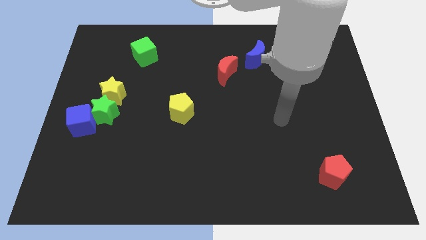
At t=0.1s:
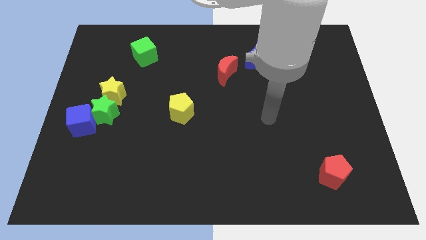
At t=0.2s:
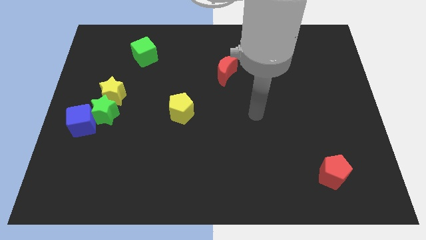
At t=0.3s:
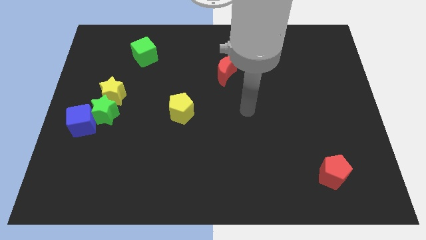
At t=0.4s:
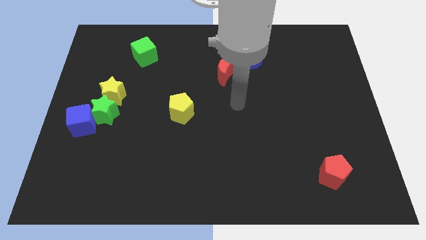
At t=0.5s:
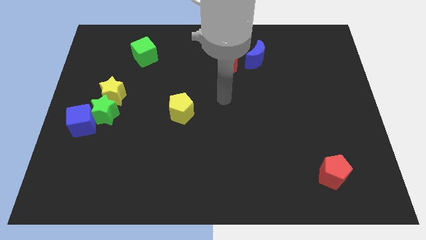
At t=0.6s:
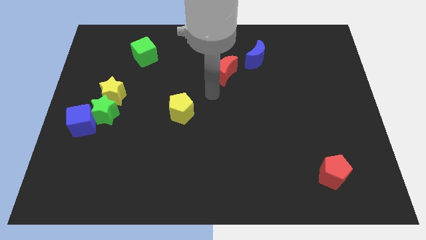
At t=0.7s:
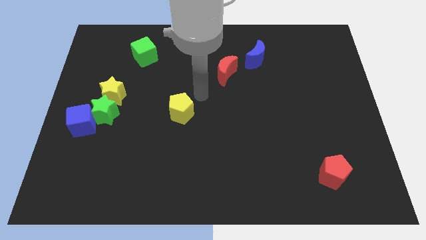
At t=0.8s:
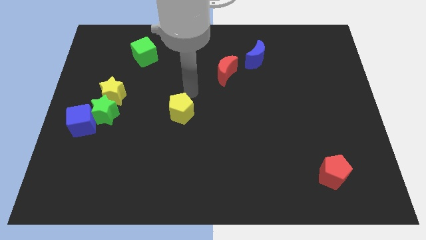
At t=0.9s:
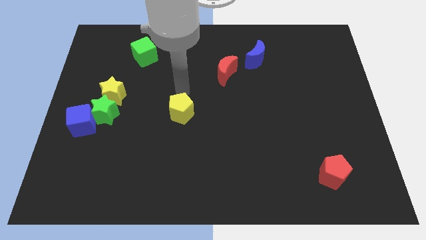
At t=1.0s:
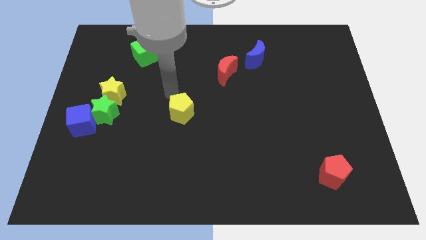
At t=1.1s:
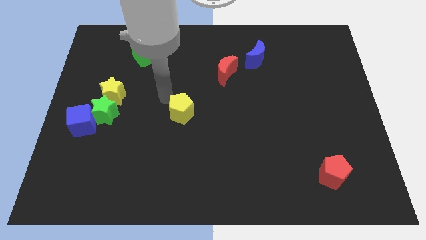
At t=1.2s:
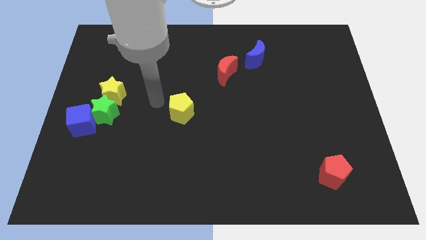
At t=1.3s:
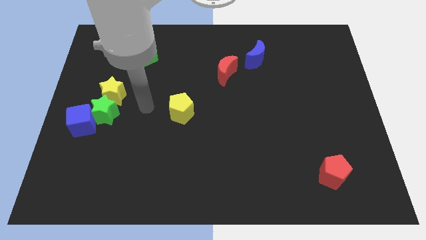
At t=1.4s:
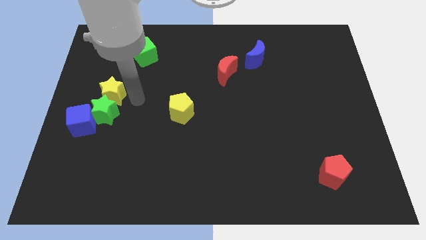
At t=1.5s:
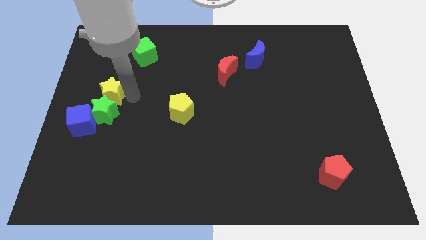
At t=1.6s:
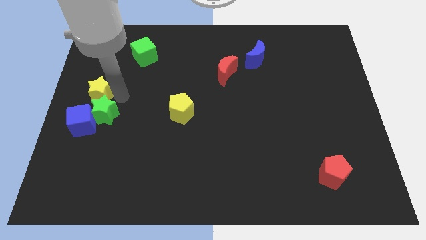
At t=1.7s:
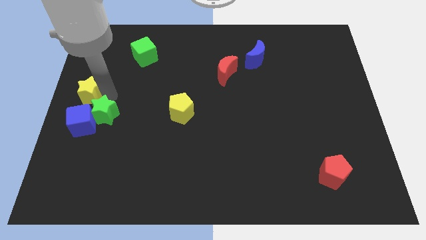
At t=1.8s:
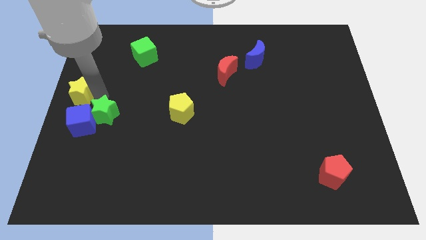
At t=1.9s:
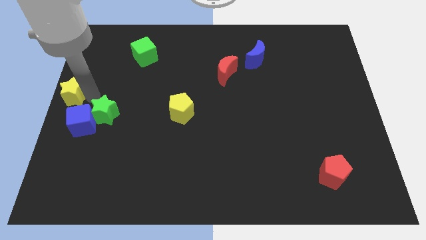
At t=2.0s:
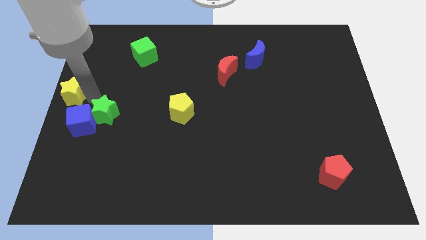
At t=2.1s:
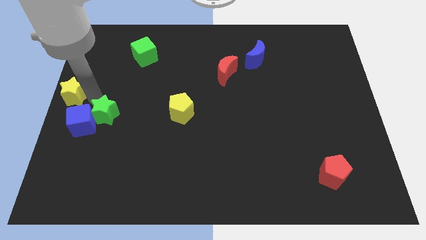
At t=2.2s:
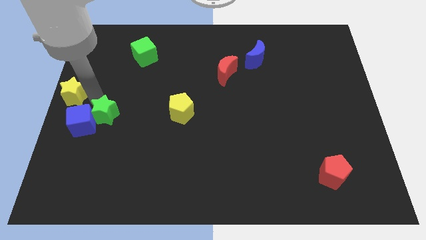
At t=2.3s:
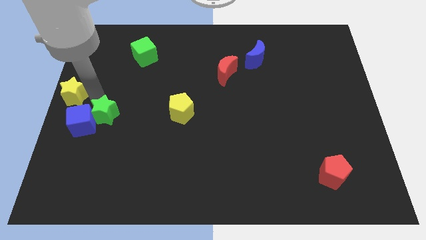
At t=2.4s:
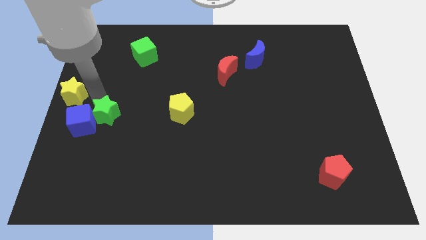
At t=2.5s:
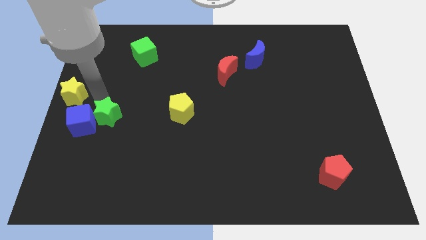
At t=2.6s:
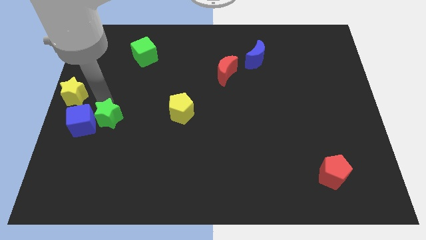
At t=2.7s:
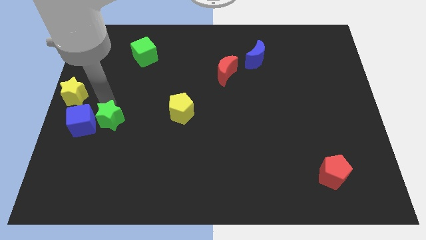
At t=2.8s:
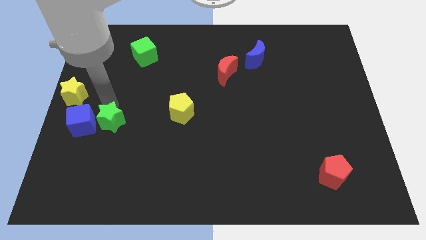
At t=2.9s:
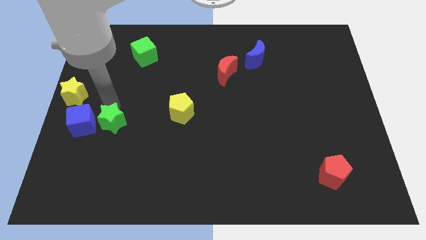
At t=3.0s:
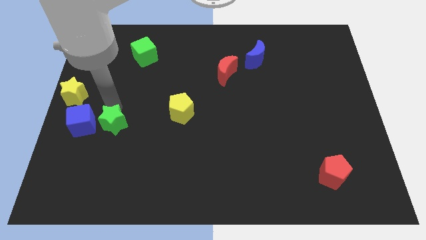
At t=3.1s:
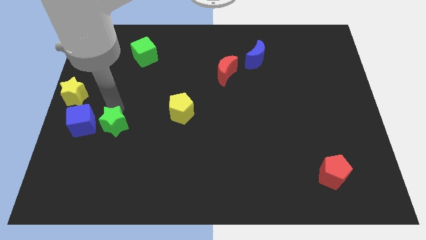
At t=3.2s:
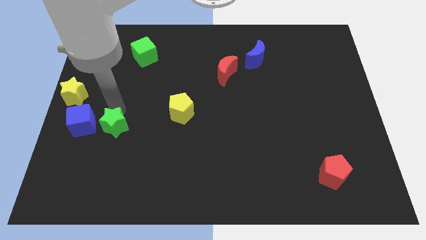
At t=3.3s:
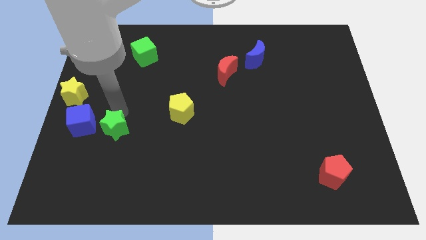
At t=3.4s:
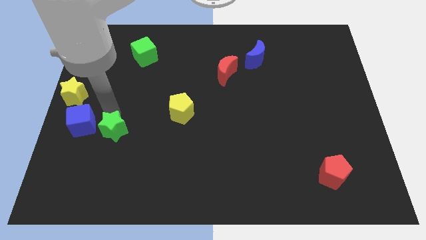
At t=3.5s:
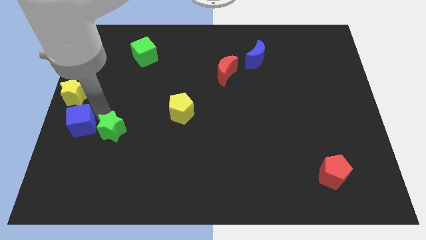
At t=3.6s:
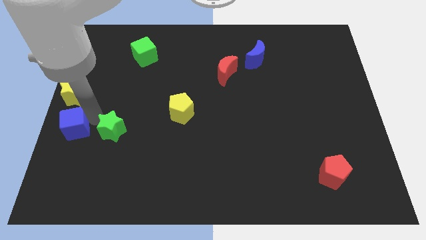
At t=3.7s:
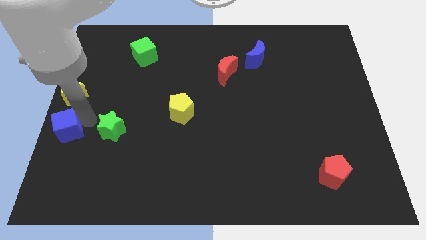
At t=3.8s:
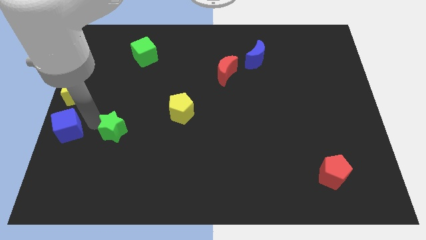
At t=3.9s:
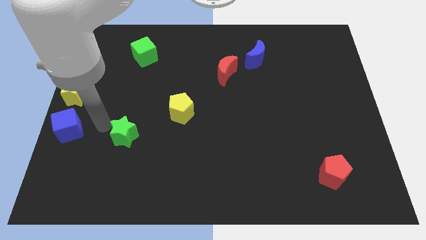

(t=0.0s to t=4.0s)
slightly push the green star down and then to the right

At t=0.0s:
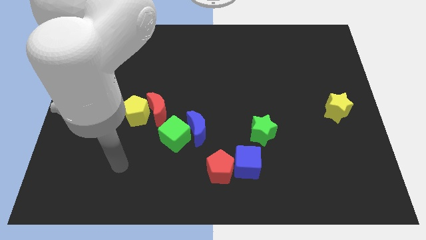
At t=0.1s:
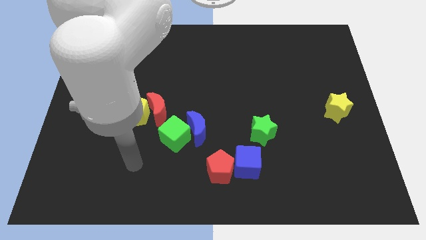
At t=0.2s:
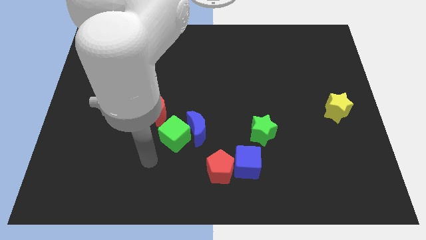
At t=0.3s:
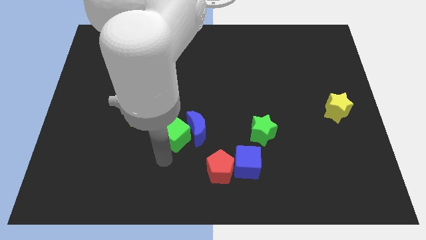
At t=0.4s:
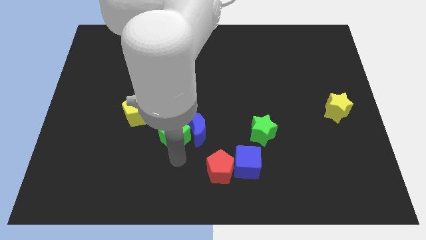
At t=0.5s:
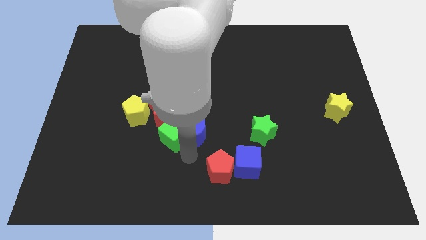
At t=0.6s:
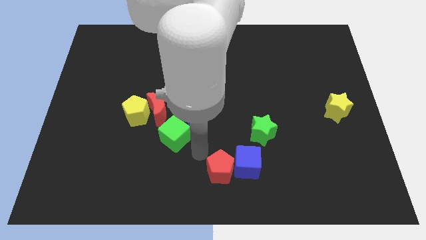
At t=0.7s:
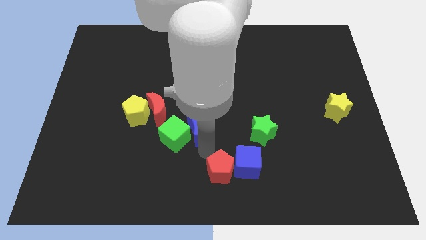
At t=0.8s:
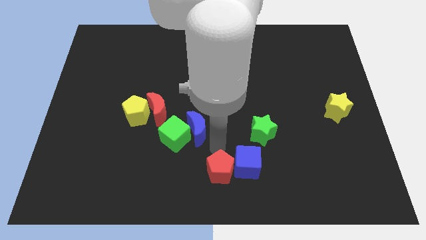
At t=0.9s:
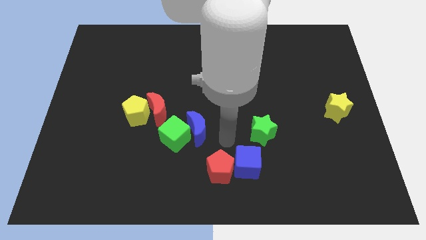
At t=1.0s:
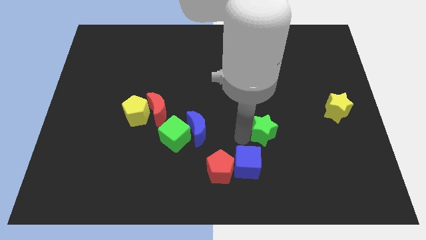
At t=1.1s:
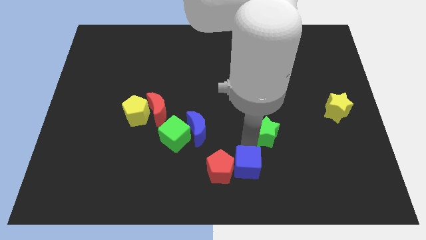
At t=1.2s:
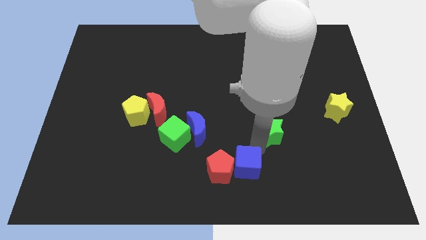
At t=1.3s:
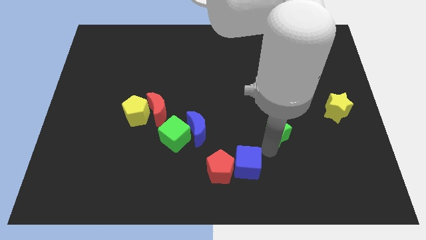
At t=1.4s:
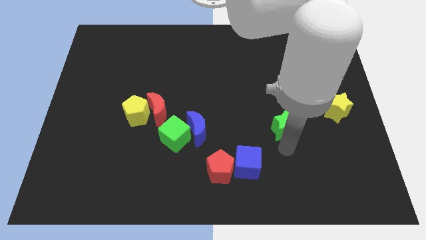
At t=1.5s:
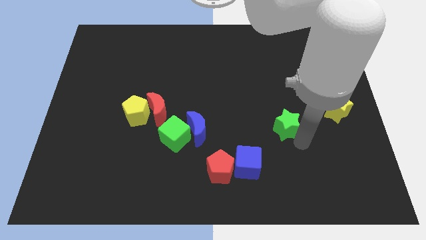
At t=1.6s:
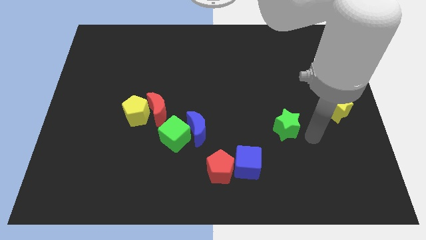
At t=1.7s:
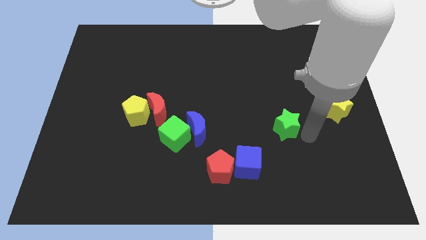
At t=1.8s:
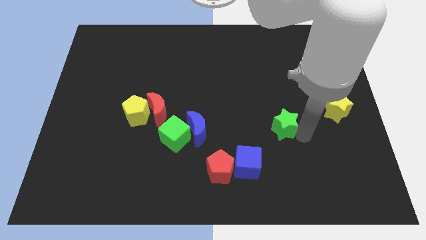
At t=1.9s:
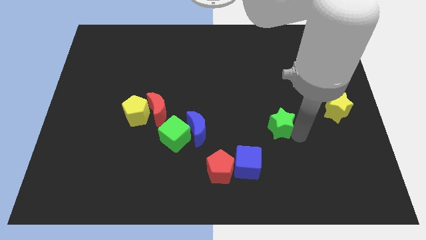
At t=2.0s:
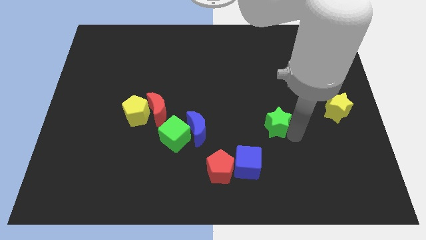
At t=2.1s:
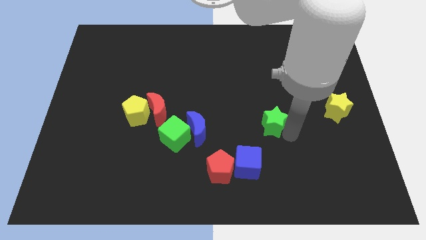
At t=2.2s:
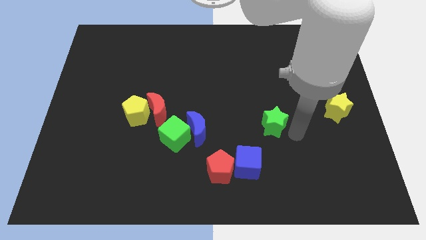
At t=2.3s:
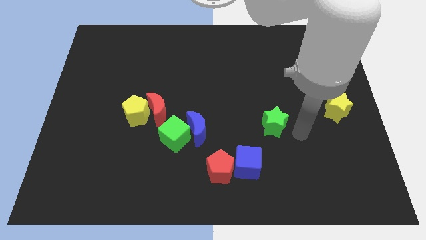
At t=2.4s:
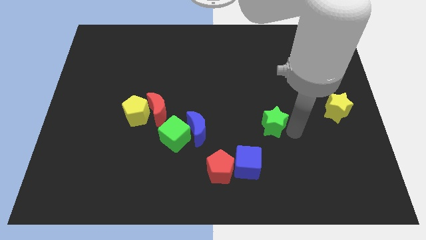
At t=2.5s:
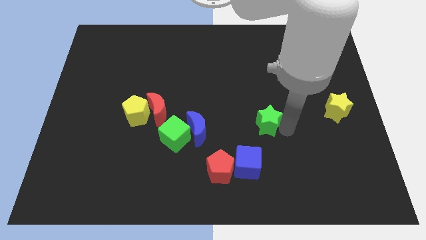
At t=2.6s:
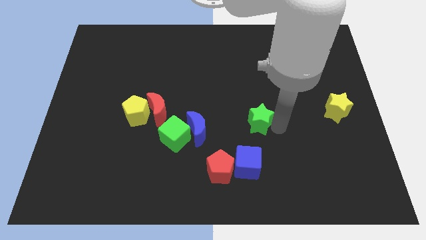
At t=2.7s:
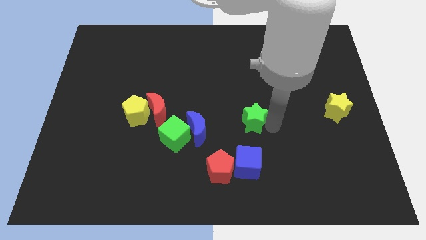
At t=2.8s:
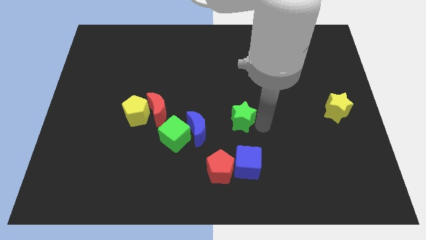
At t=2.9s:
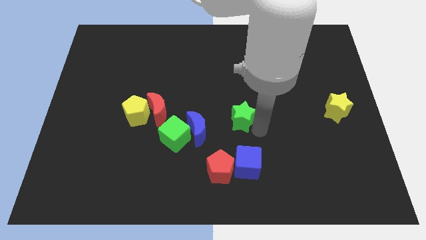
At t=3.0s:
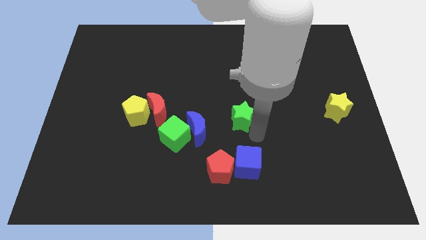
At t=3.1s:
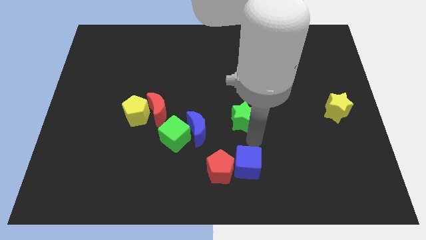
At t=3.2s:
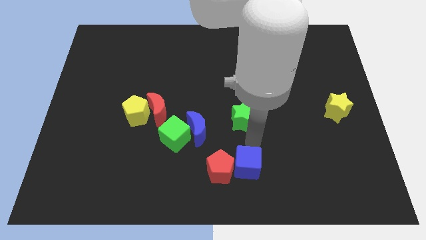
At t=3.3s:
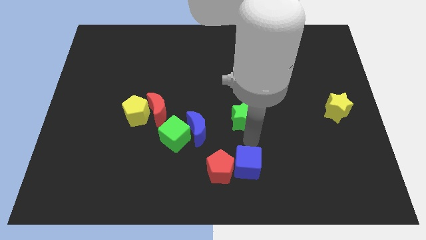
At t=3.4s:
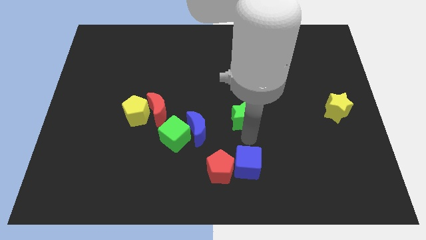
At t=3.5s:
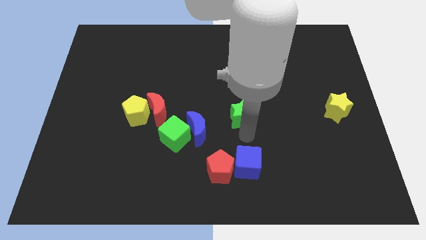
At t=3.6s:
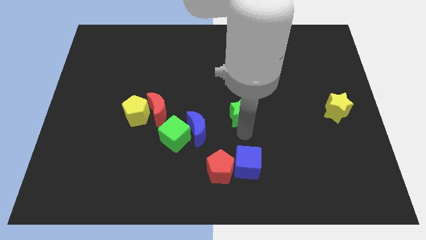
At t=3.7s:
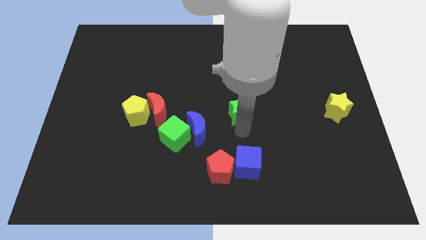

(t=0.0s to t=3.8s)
move the green star diagonally upwards and left a little
